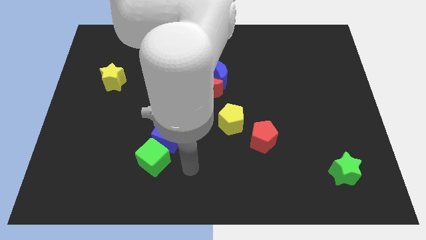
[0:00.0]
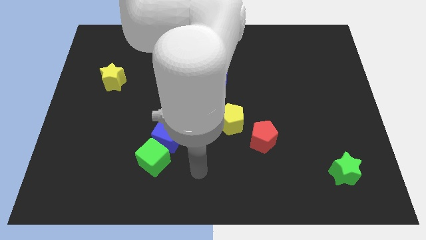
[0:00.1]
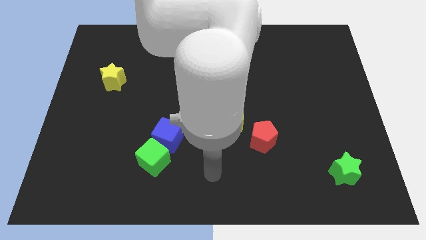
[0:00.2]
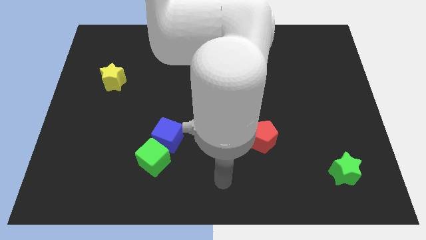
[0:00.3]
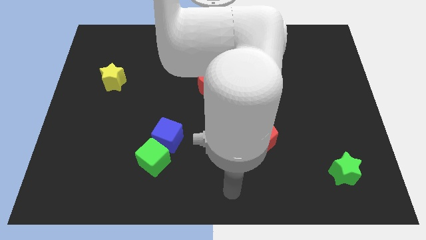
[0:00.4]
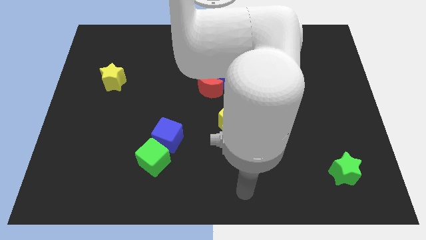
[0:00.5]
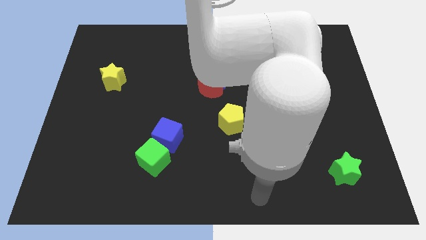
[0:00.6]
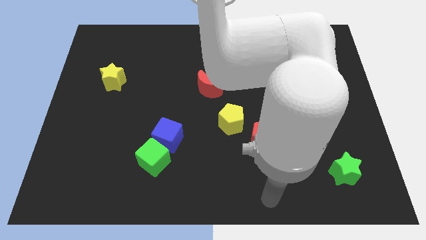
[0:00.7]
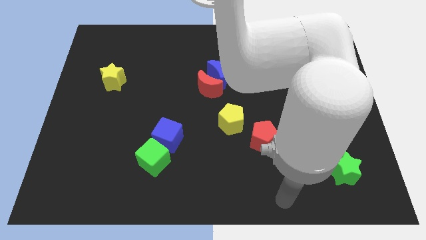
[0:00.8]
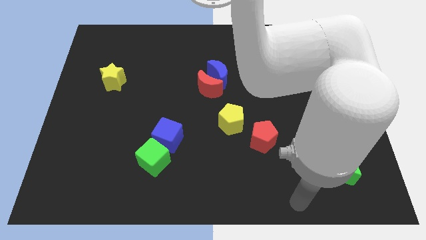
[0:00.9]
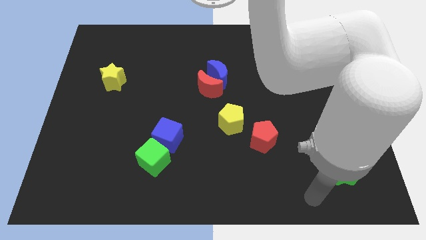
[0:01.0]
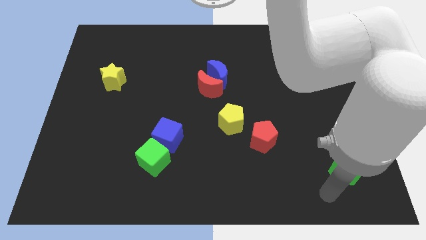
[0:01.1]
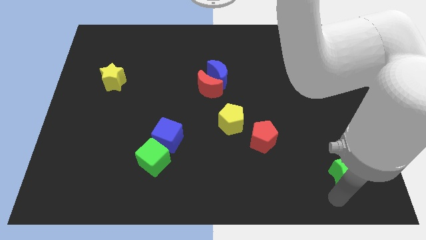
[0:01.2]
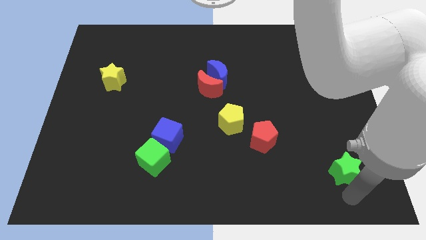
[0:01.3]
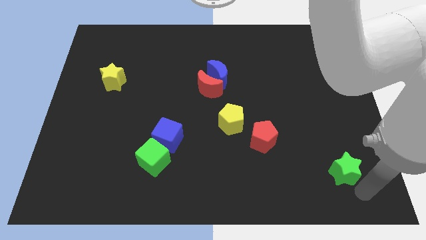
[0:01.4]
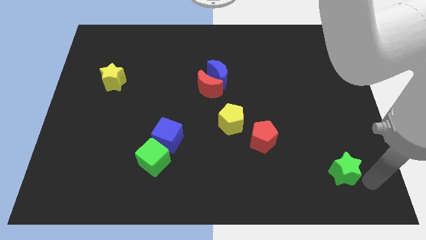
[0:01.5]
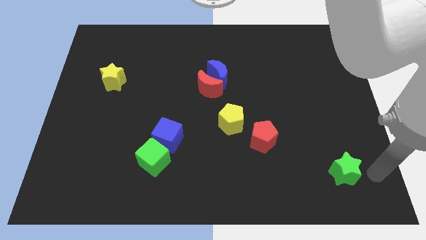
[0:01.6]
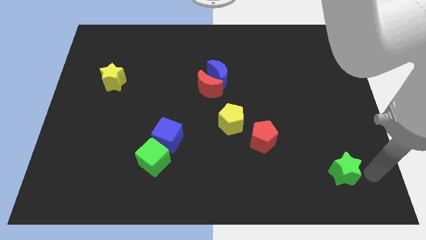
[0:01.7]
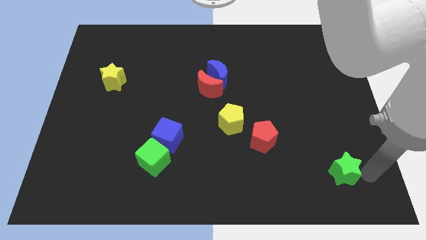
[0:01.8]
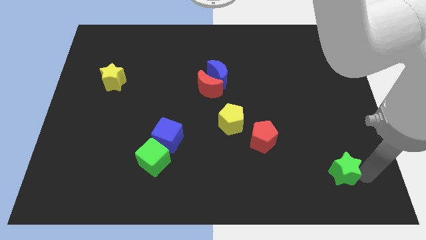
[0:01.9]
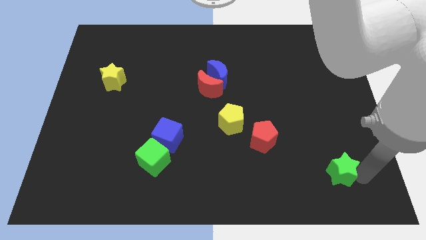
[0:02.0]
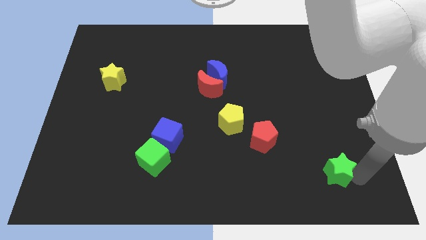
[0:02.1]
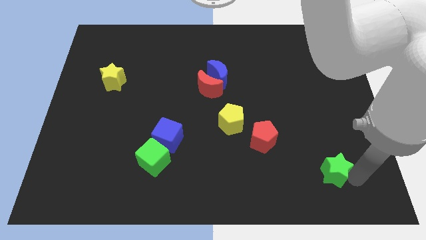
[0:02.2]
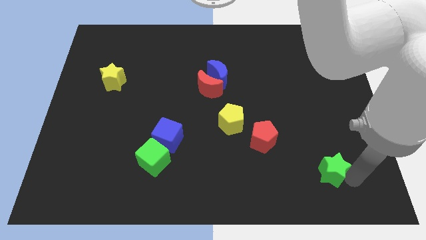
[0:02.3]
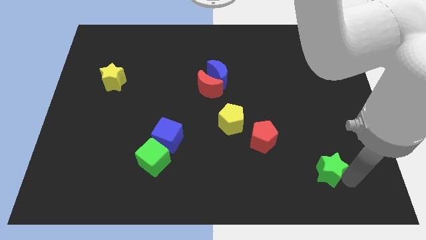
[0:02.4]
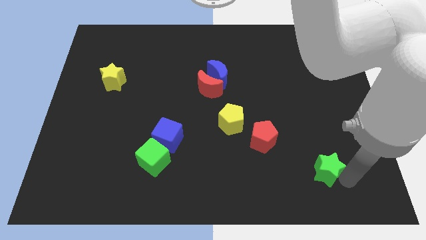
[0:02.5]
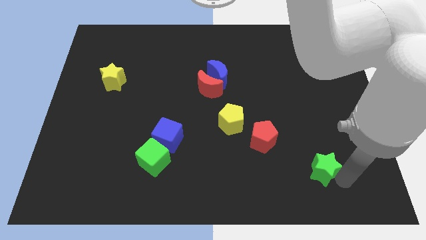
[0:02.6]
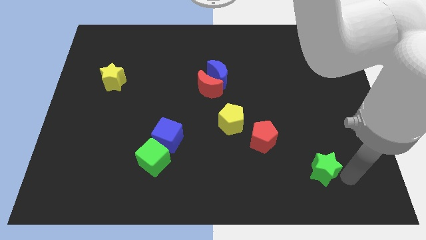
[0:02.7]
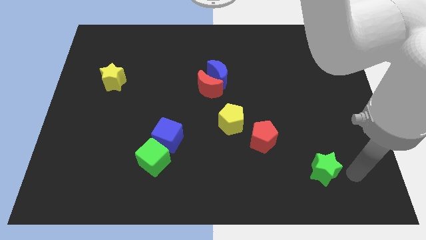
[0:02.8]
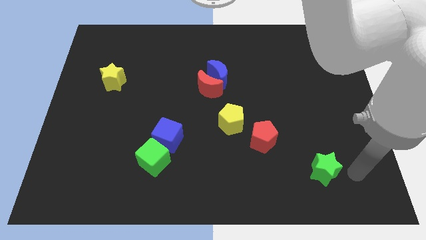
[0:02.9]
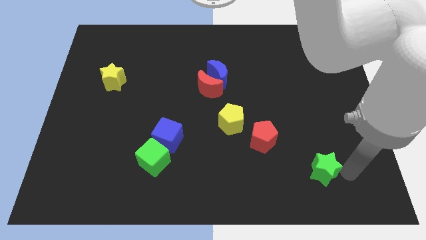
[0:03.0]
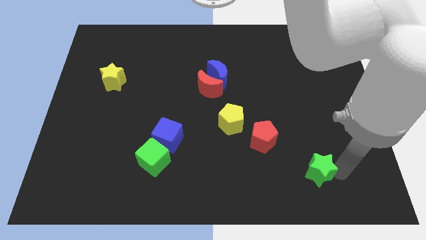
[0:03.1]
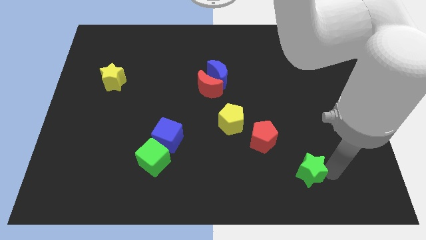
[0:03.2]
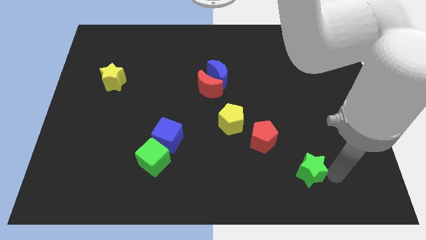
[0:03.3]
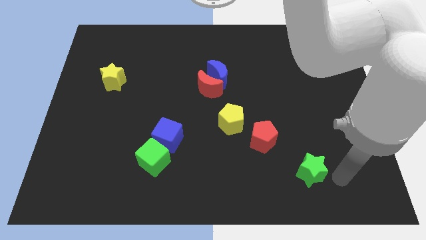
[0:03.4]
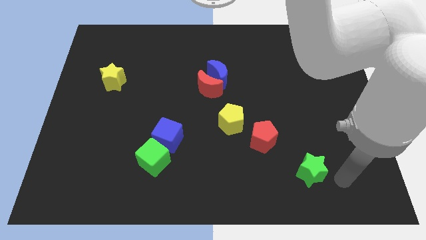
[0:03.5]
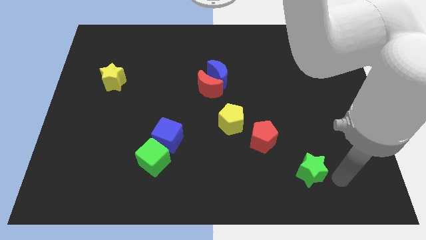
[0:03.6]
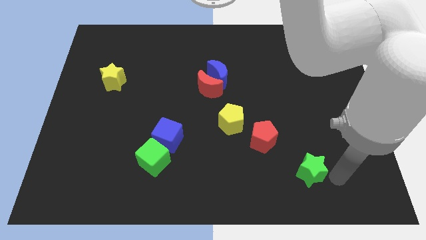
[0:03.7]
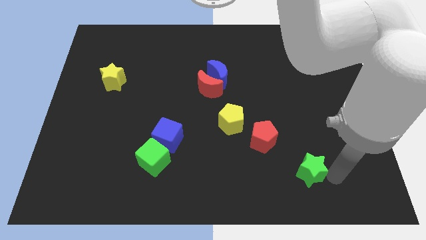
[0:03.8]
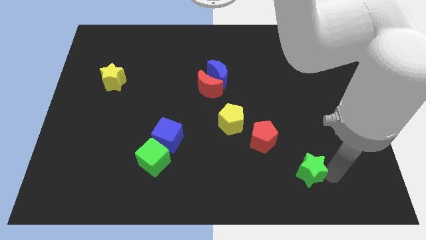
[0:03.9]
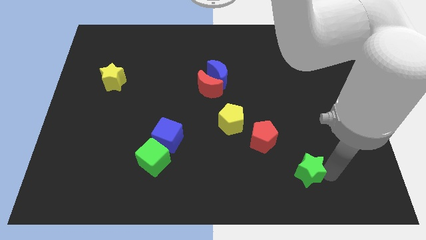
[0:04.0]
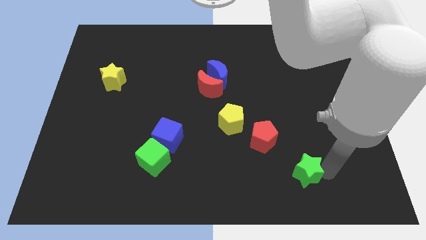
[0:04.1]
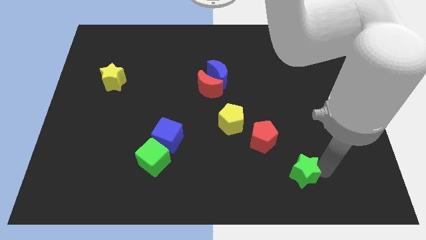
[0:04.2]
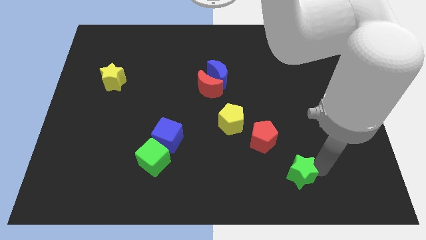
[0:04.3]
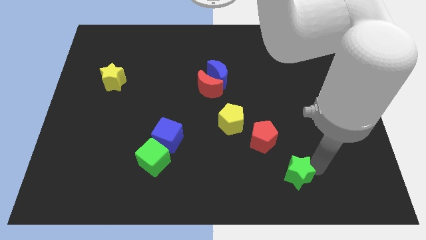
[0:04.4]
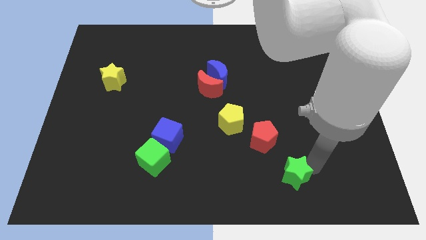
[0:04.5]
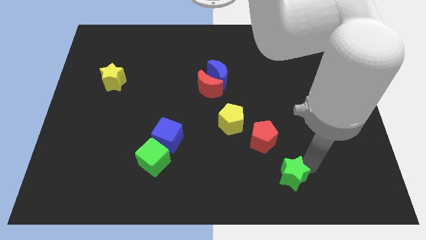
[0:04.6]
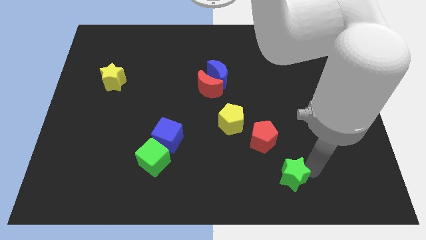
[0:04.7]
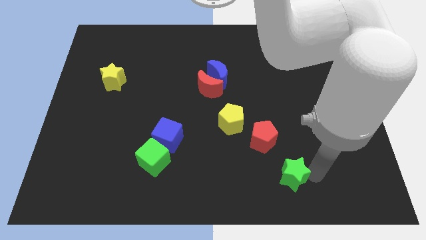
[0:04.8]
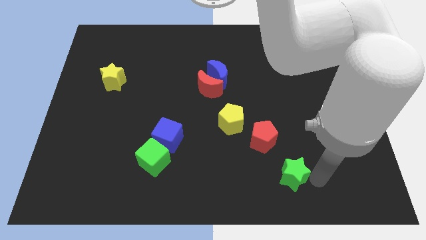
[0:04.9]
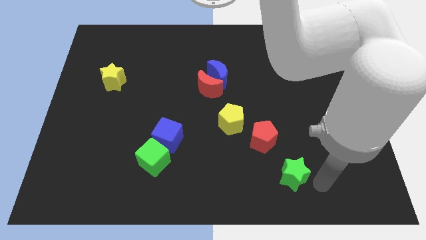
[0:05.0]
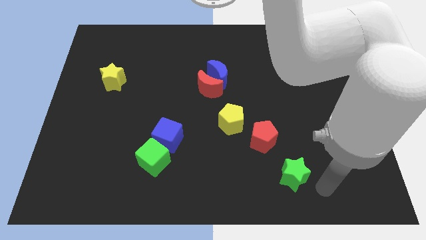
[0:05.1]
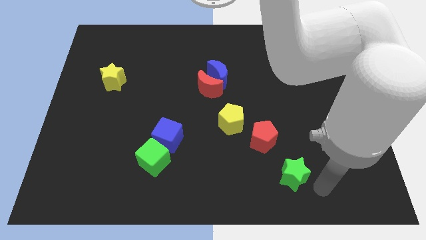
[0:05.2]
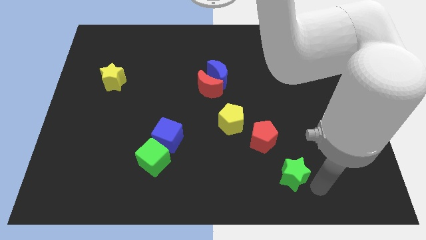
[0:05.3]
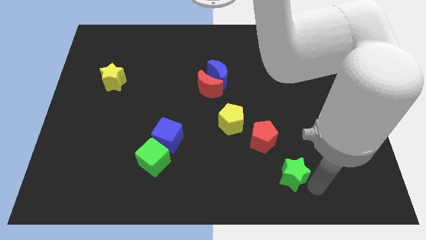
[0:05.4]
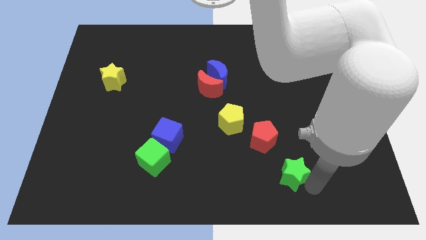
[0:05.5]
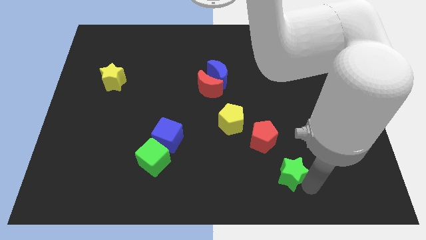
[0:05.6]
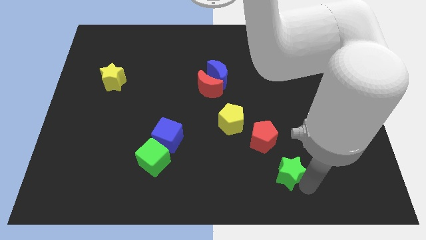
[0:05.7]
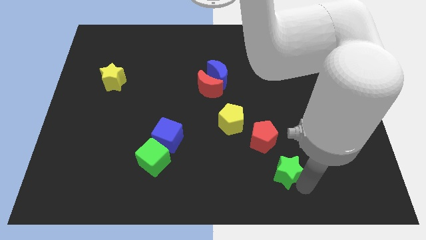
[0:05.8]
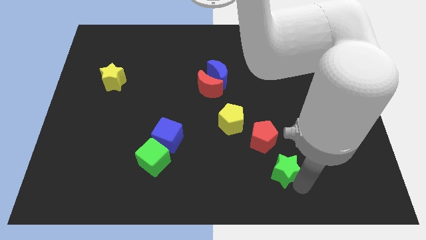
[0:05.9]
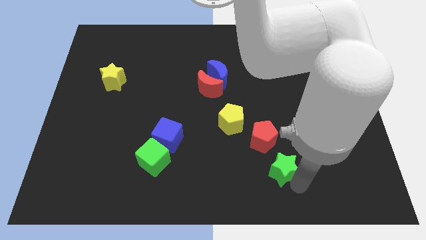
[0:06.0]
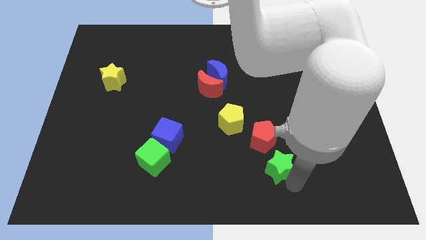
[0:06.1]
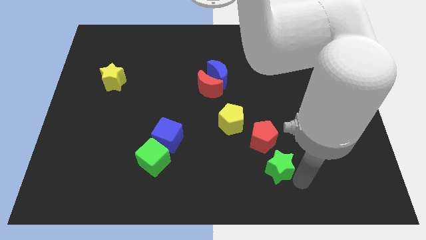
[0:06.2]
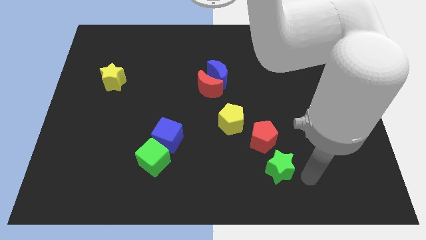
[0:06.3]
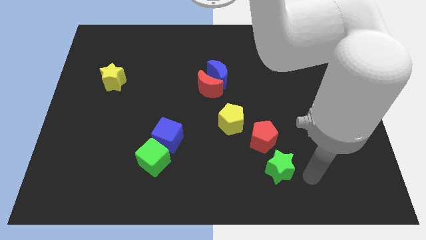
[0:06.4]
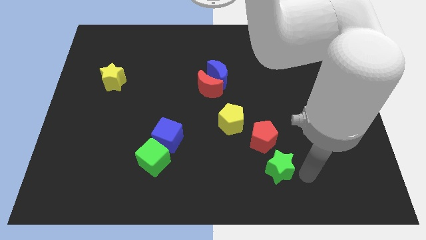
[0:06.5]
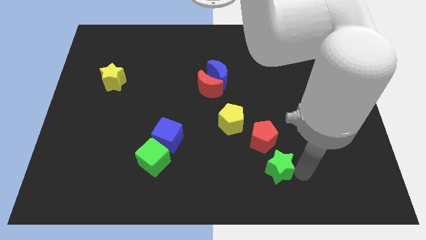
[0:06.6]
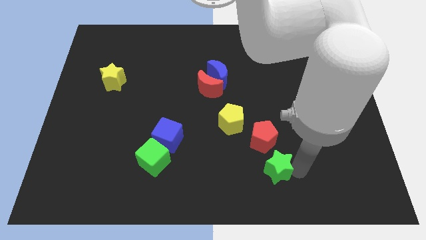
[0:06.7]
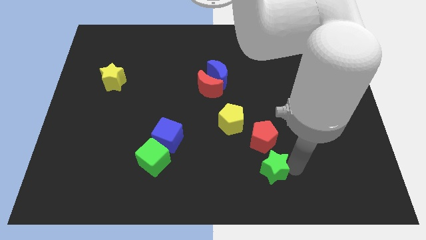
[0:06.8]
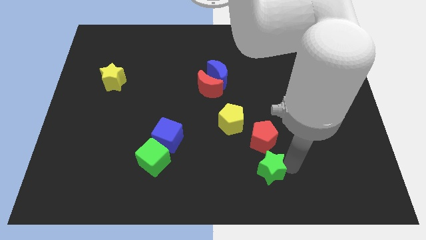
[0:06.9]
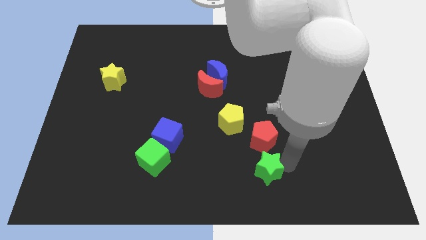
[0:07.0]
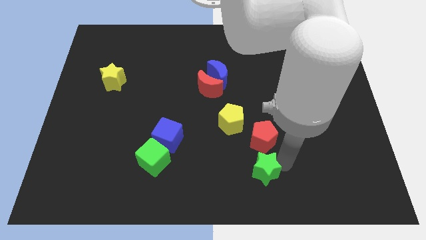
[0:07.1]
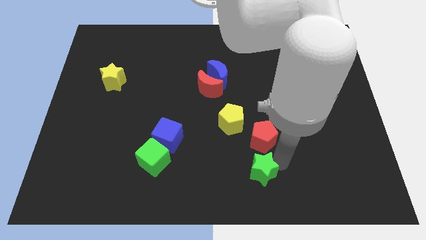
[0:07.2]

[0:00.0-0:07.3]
put the green star to the bottom left side of the red pentagon

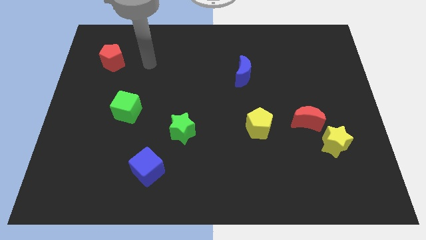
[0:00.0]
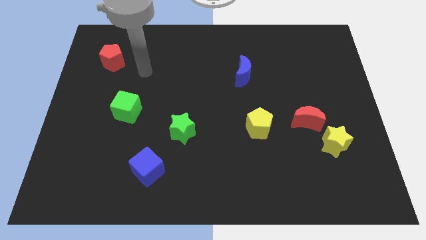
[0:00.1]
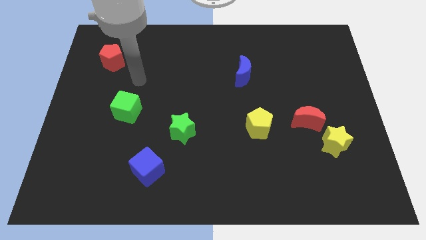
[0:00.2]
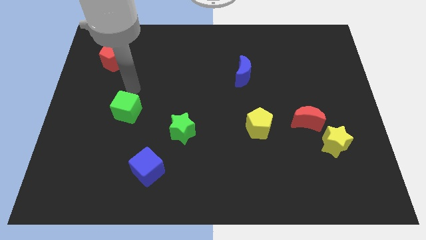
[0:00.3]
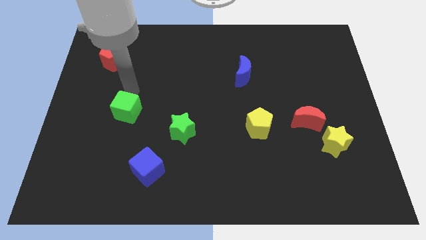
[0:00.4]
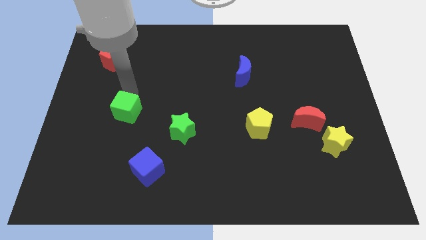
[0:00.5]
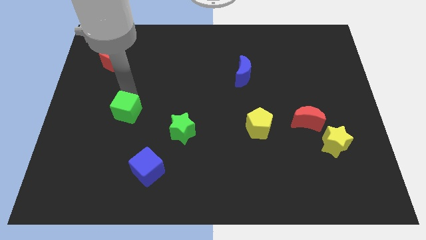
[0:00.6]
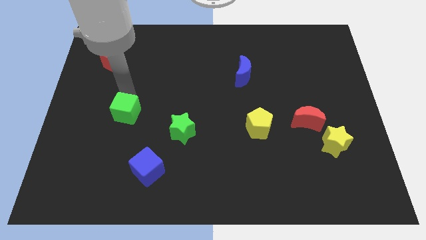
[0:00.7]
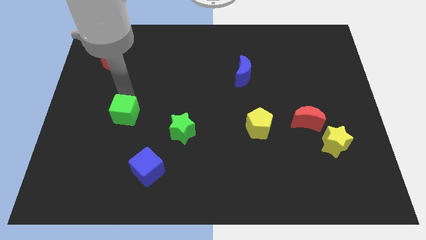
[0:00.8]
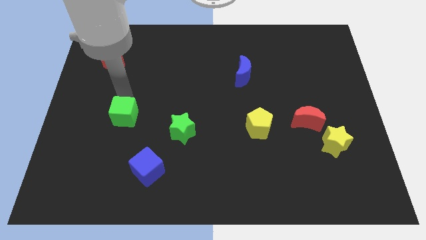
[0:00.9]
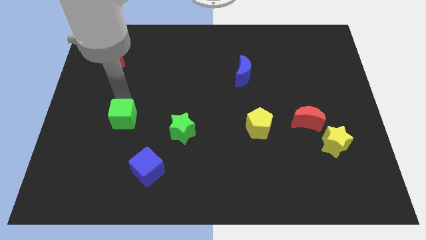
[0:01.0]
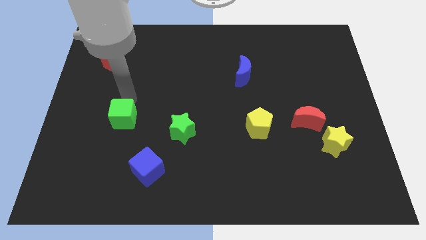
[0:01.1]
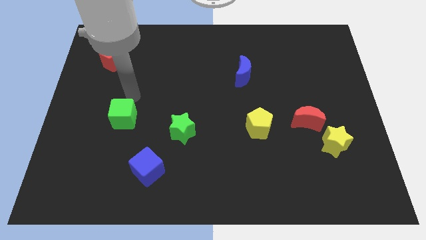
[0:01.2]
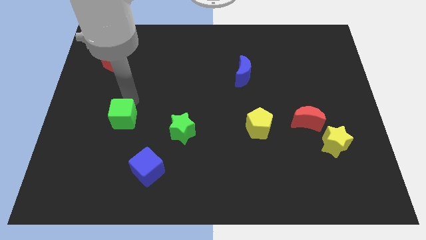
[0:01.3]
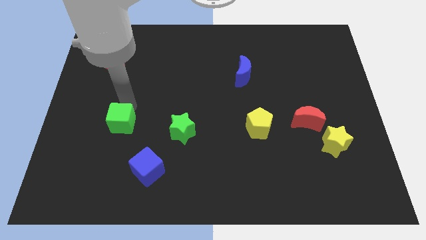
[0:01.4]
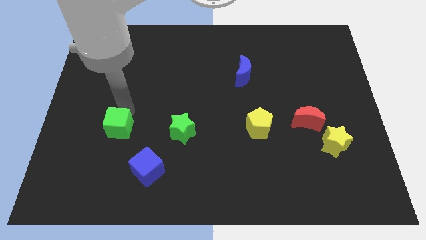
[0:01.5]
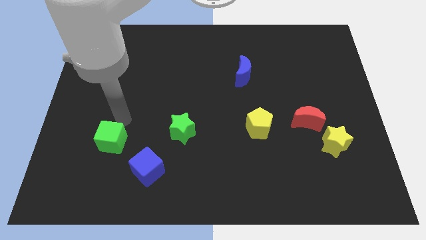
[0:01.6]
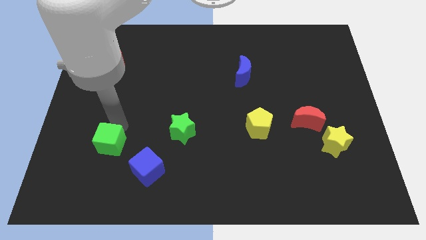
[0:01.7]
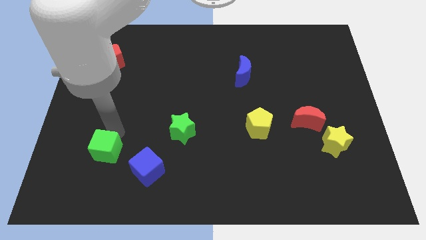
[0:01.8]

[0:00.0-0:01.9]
slide the green cube to the left of the blue cube
